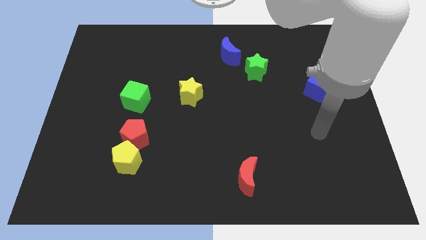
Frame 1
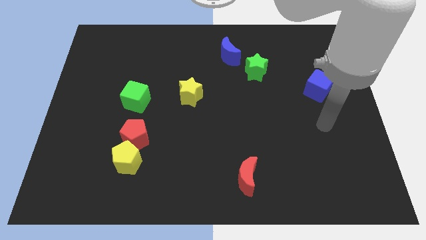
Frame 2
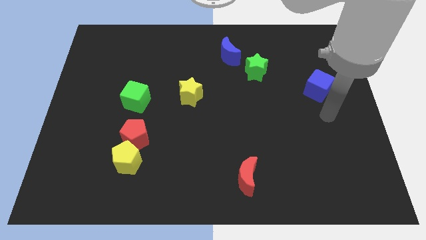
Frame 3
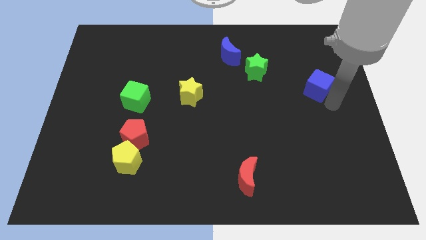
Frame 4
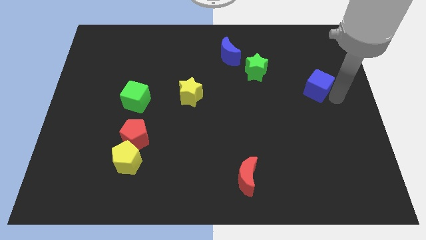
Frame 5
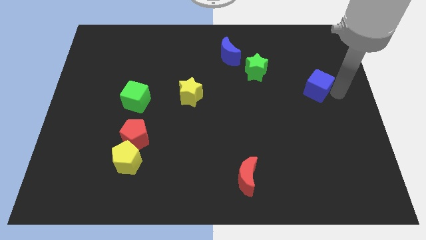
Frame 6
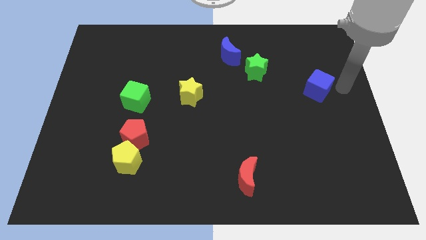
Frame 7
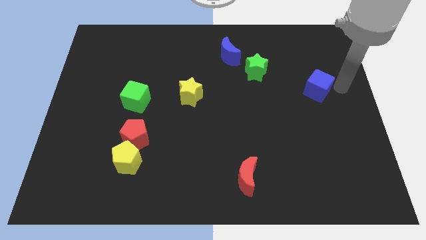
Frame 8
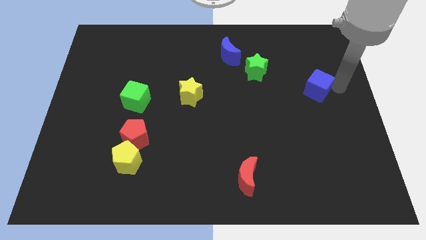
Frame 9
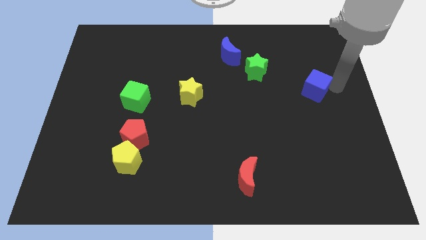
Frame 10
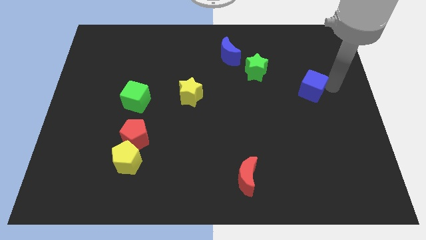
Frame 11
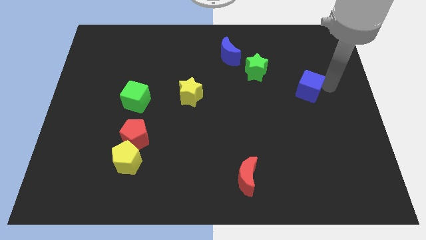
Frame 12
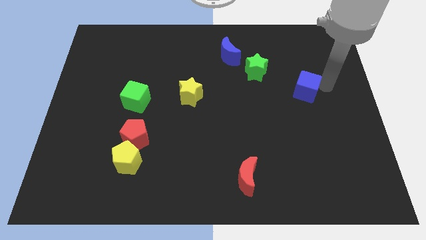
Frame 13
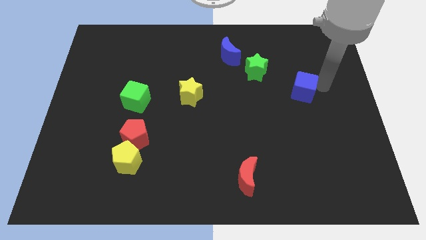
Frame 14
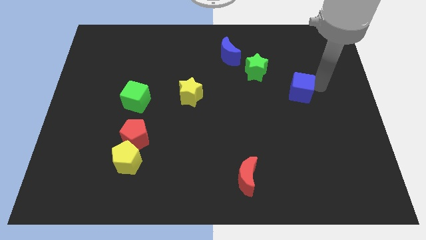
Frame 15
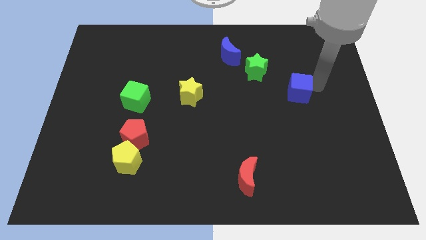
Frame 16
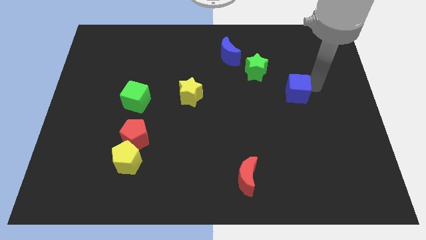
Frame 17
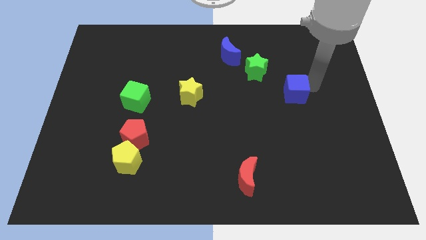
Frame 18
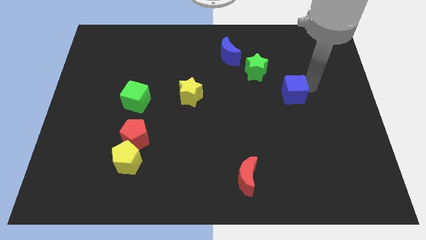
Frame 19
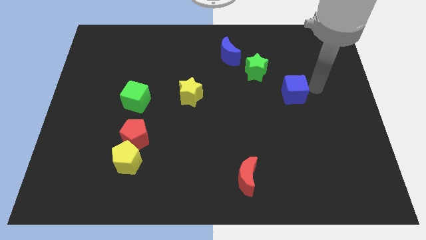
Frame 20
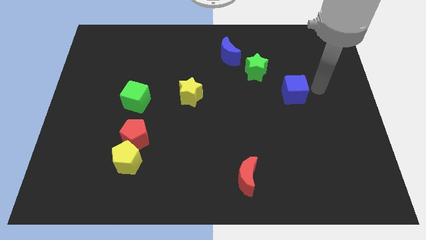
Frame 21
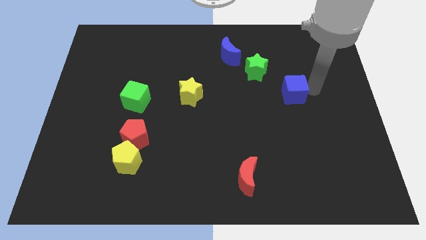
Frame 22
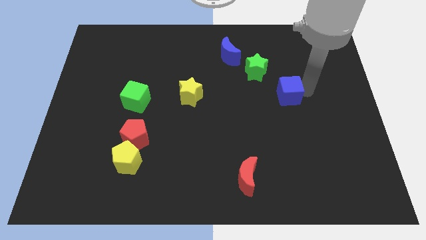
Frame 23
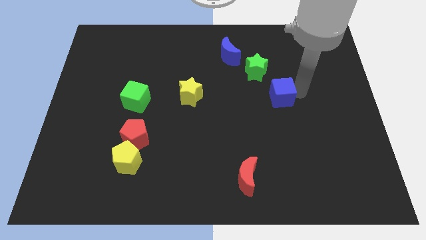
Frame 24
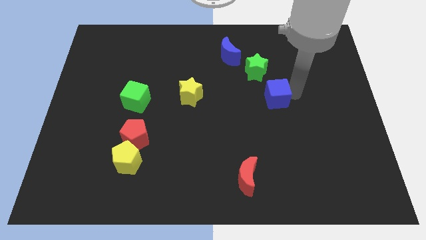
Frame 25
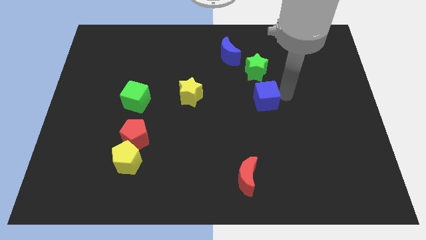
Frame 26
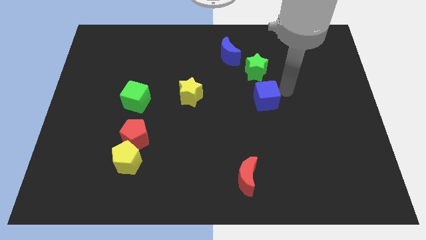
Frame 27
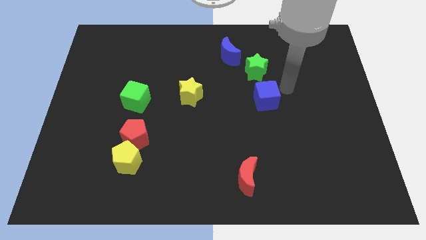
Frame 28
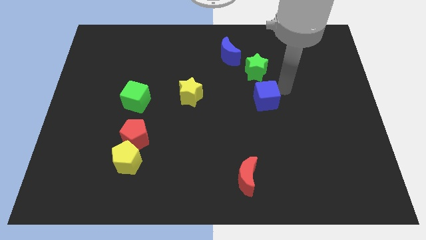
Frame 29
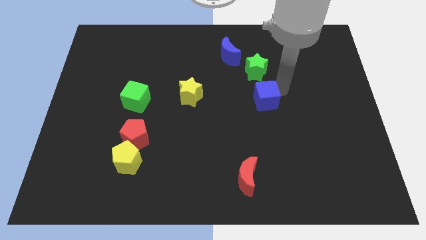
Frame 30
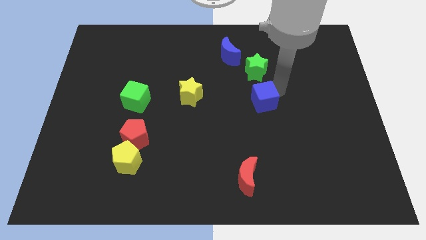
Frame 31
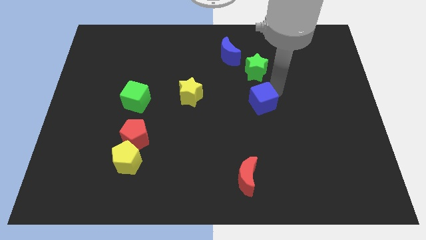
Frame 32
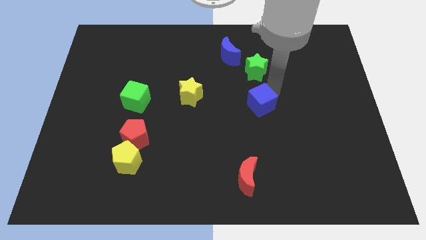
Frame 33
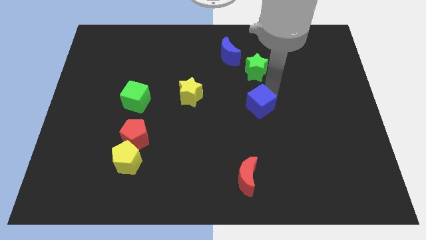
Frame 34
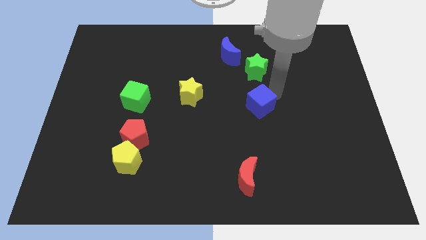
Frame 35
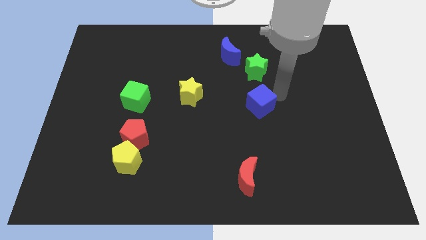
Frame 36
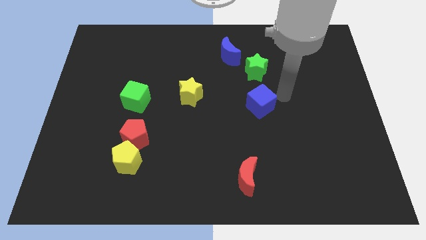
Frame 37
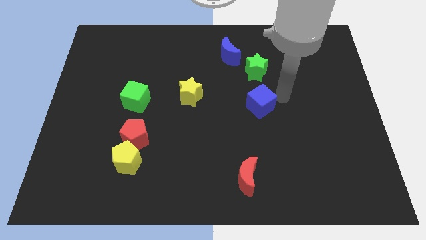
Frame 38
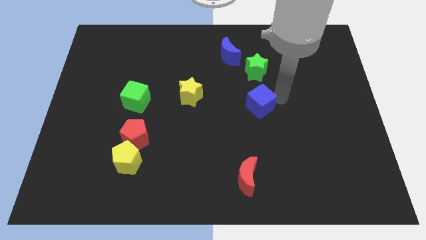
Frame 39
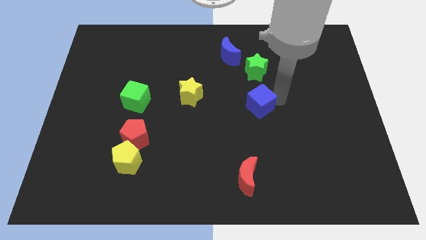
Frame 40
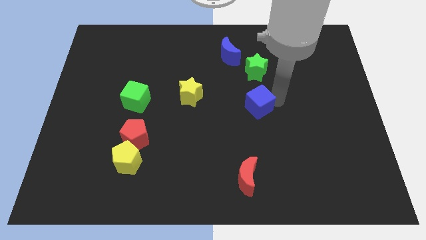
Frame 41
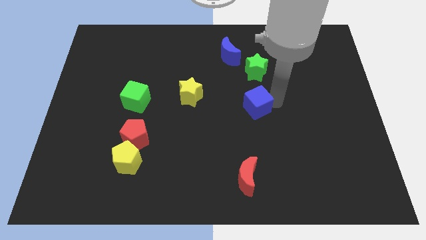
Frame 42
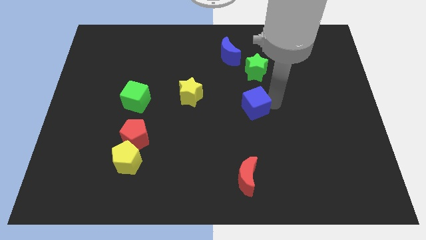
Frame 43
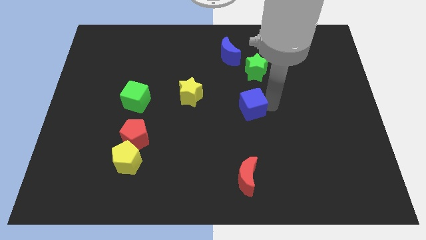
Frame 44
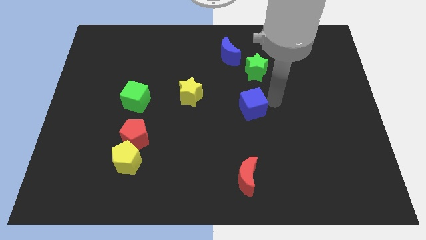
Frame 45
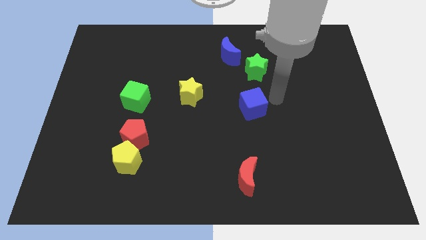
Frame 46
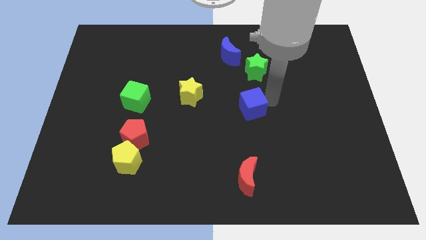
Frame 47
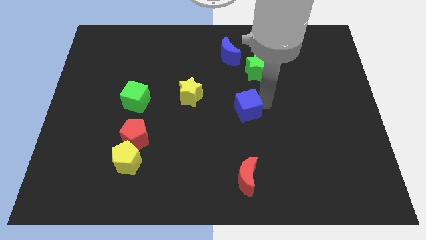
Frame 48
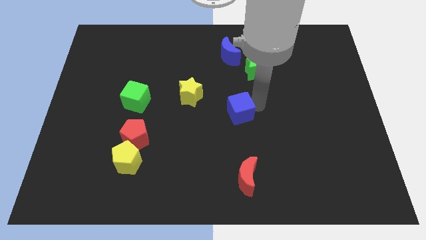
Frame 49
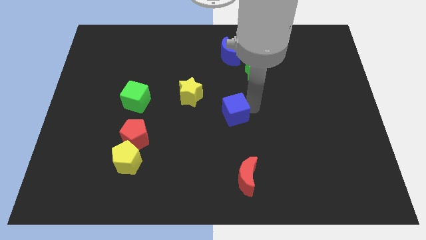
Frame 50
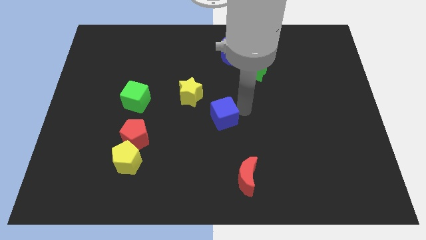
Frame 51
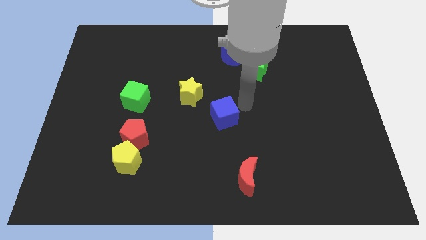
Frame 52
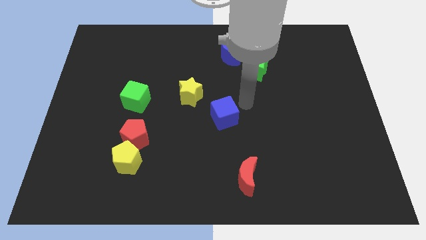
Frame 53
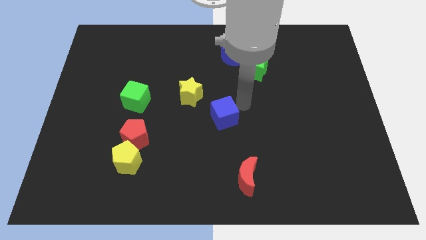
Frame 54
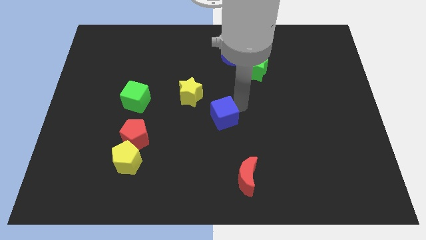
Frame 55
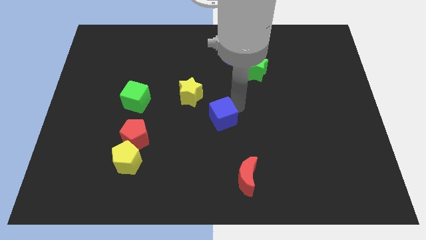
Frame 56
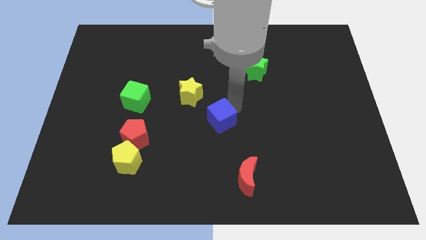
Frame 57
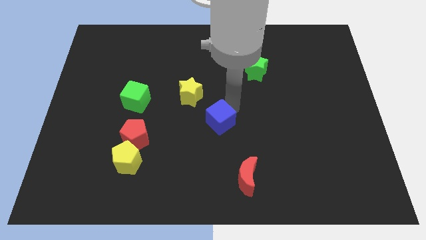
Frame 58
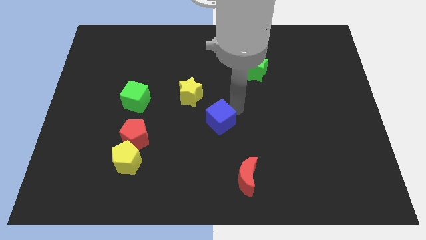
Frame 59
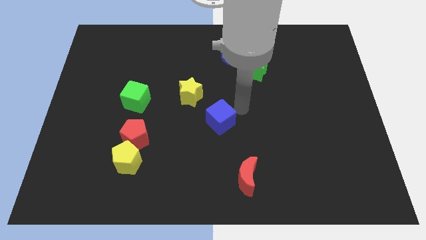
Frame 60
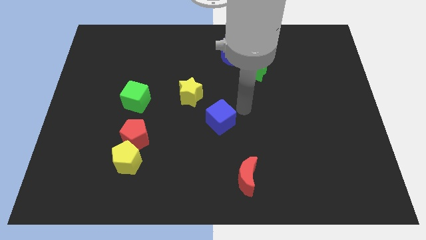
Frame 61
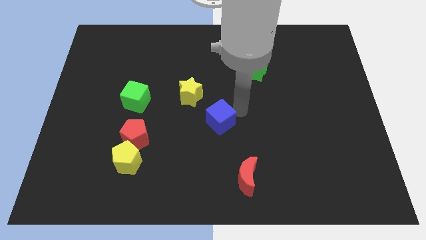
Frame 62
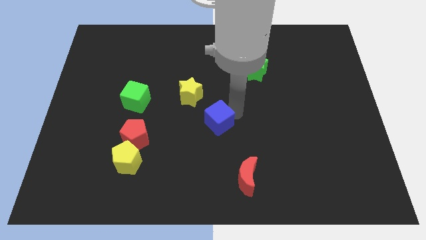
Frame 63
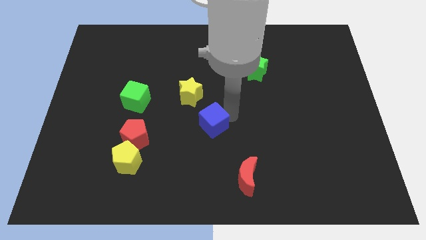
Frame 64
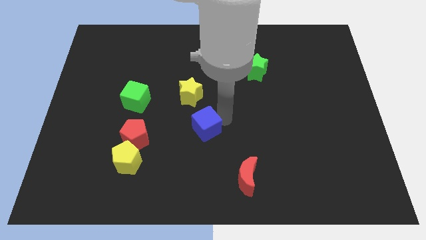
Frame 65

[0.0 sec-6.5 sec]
move the blue cube below the yellow star
